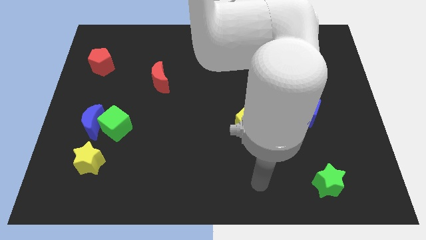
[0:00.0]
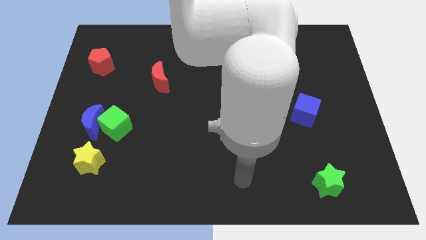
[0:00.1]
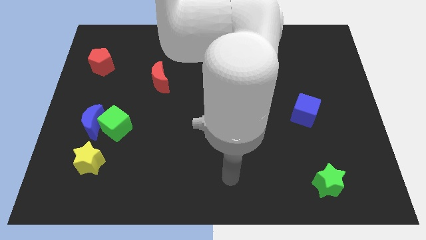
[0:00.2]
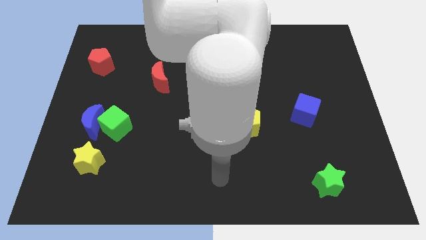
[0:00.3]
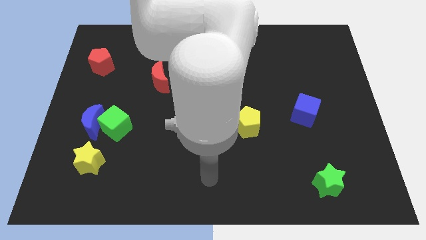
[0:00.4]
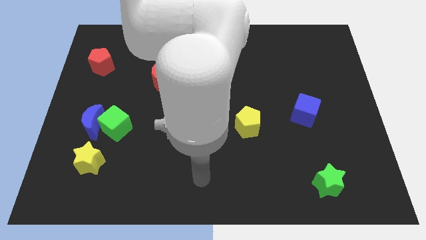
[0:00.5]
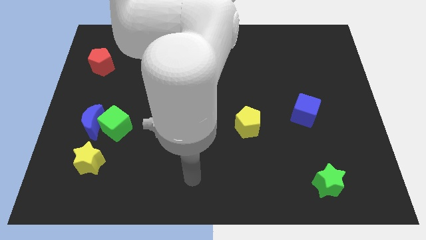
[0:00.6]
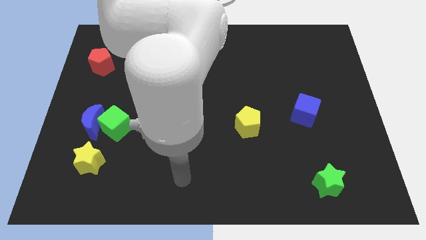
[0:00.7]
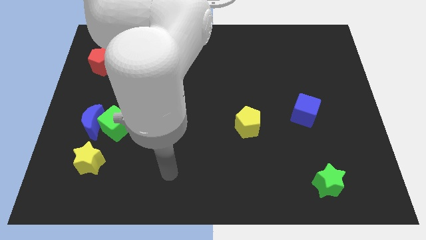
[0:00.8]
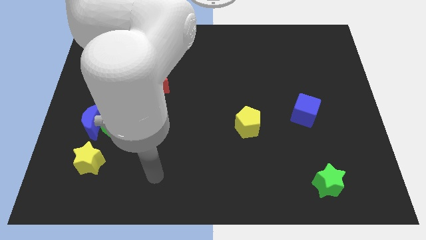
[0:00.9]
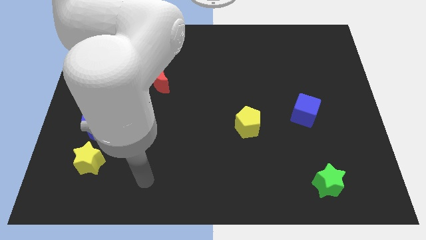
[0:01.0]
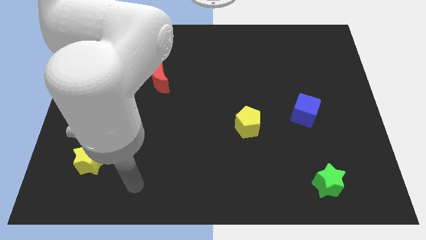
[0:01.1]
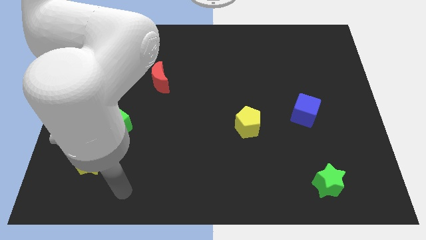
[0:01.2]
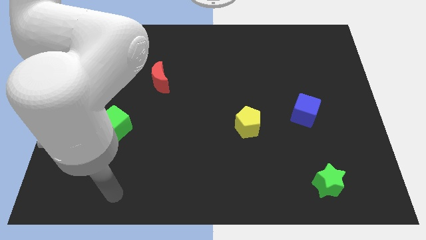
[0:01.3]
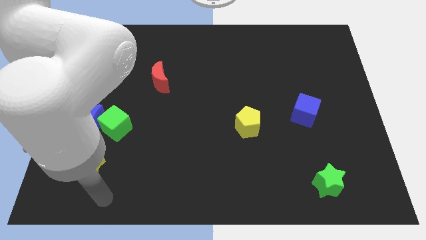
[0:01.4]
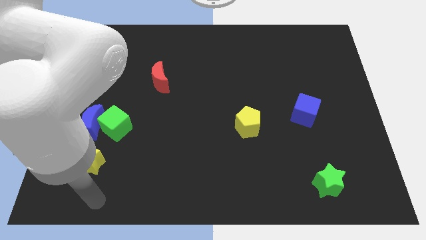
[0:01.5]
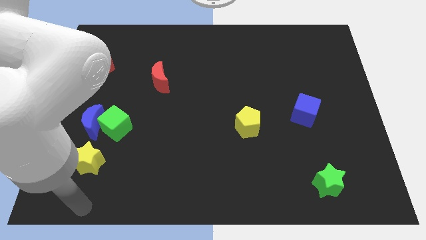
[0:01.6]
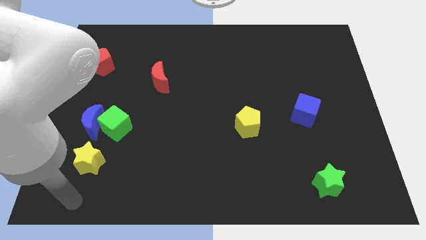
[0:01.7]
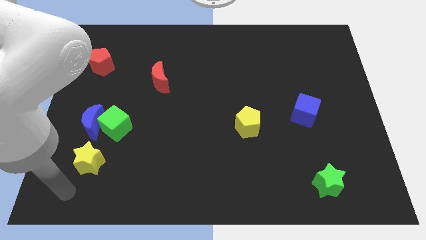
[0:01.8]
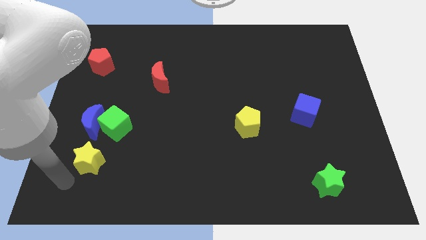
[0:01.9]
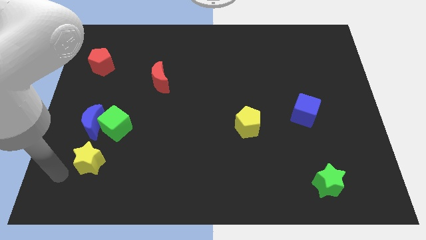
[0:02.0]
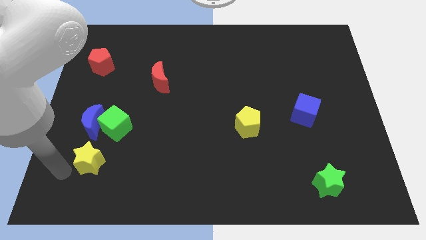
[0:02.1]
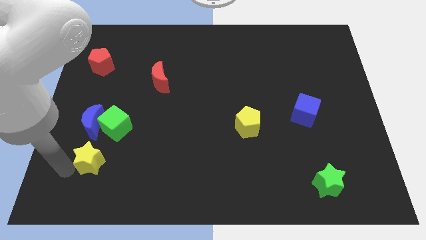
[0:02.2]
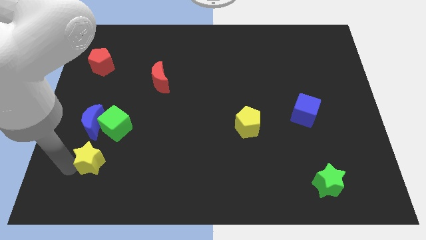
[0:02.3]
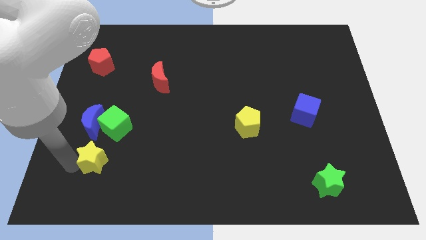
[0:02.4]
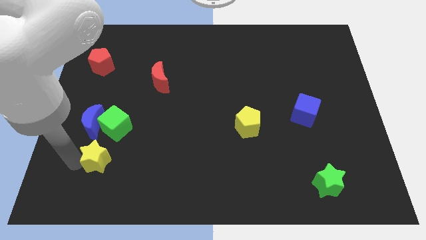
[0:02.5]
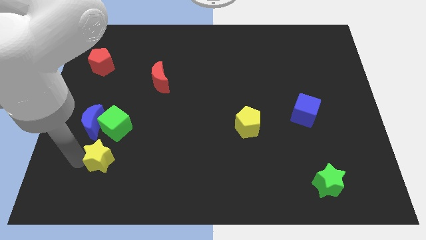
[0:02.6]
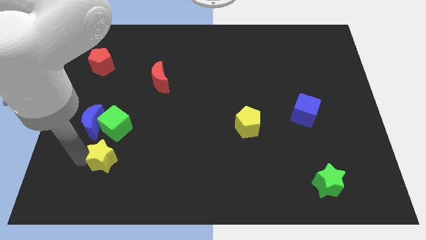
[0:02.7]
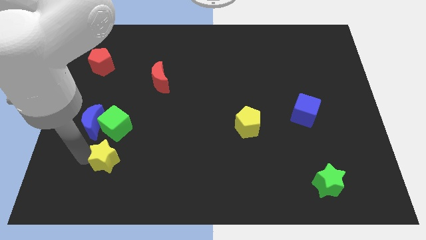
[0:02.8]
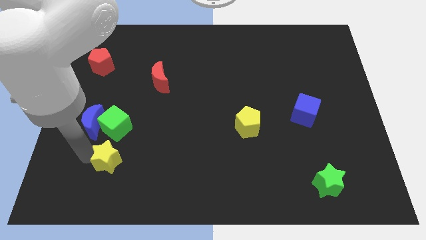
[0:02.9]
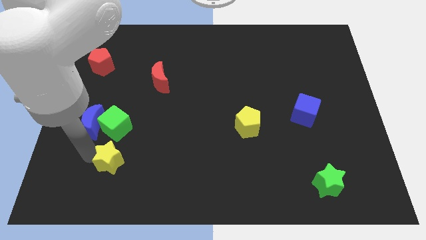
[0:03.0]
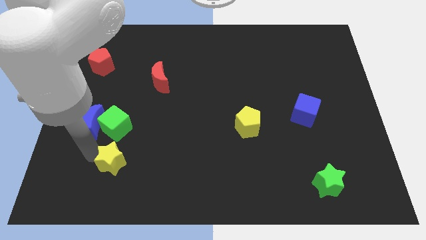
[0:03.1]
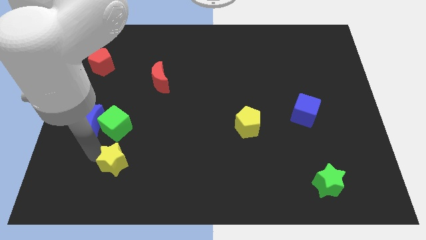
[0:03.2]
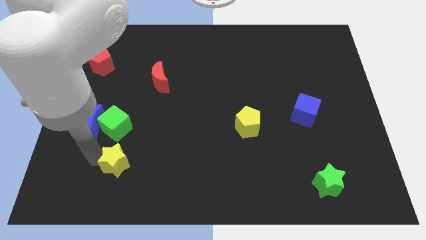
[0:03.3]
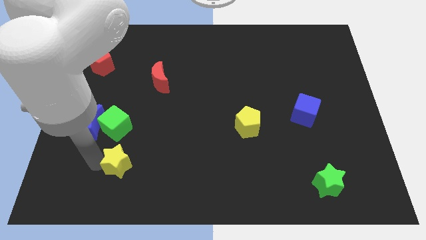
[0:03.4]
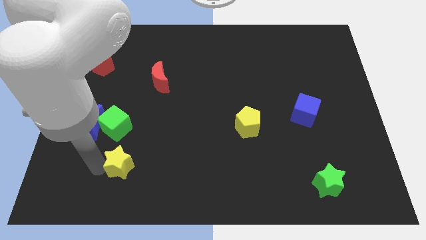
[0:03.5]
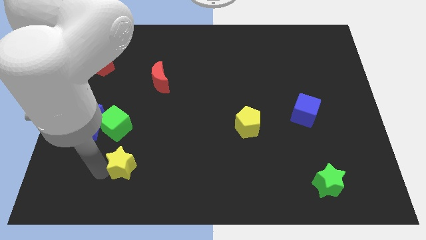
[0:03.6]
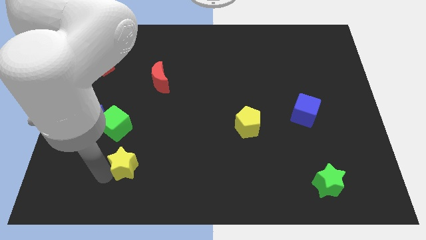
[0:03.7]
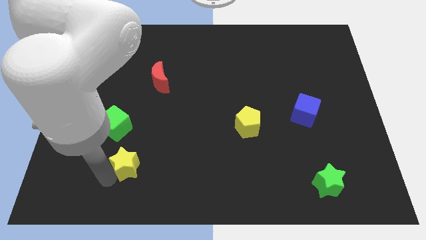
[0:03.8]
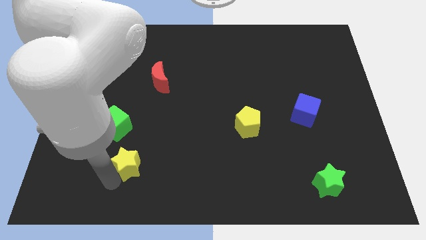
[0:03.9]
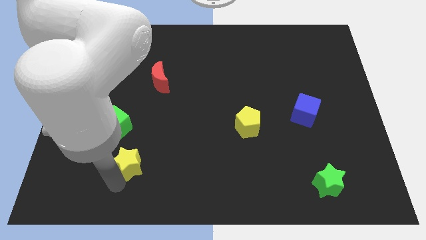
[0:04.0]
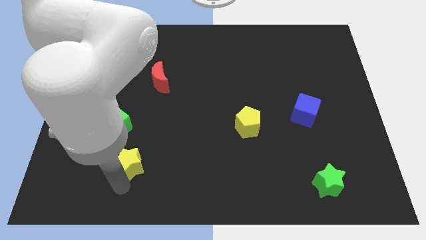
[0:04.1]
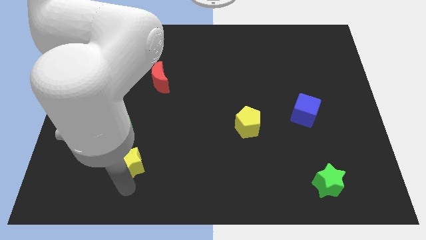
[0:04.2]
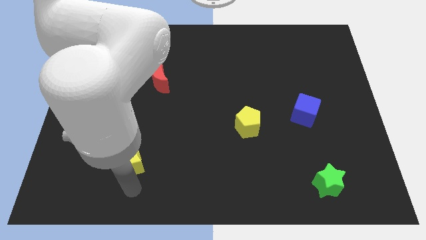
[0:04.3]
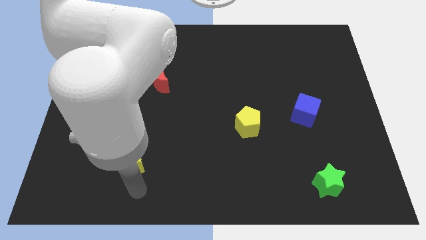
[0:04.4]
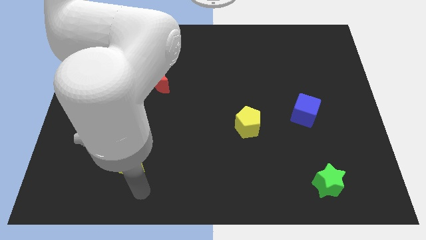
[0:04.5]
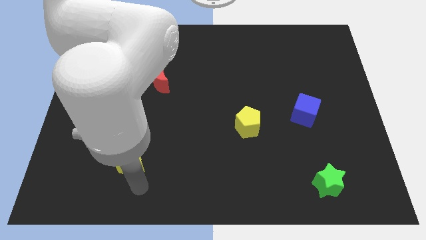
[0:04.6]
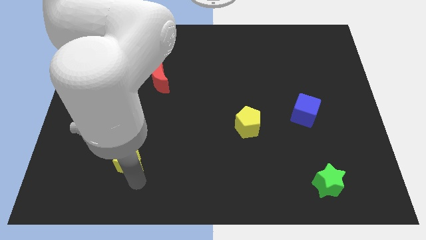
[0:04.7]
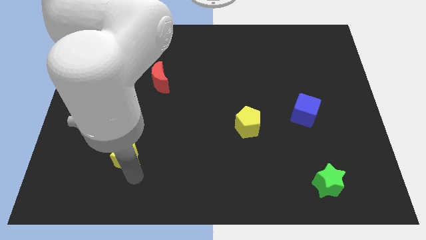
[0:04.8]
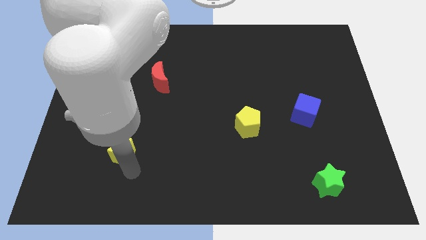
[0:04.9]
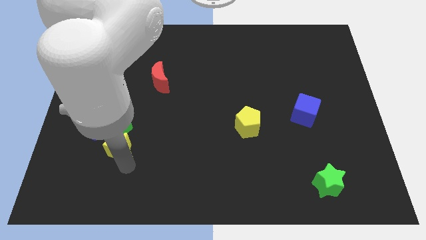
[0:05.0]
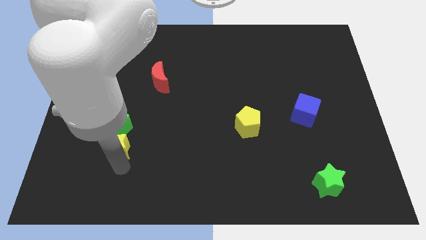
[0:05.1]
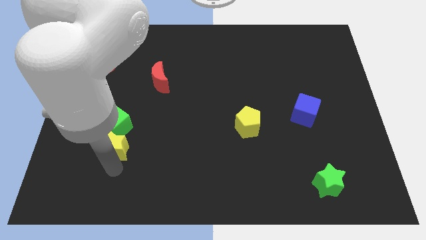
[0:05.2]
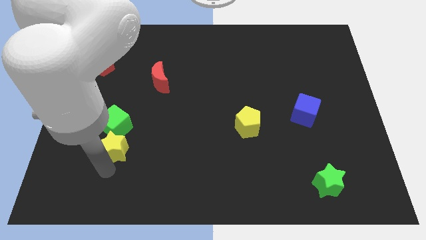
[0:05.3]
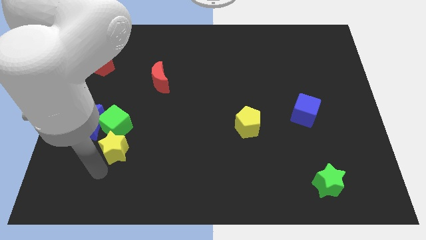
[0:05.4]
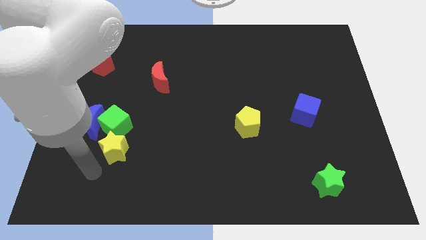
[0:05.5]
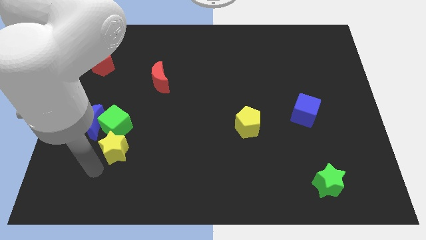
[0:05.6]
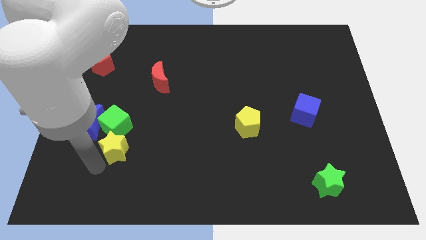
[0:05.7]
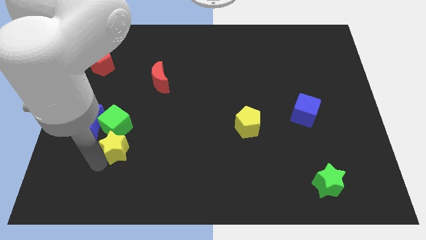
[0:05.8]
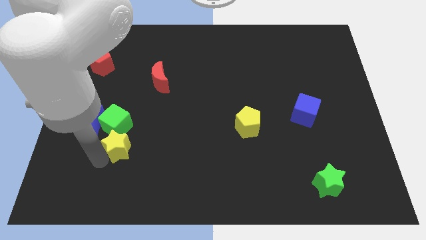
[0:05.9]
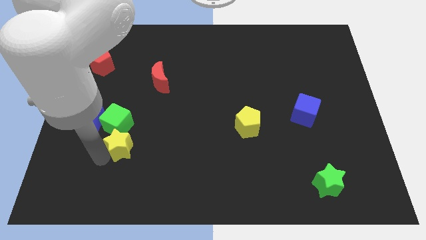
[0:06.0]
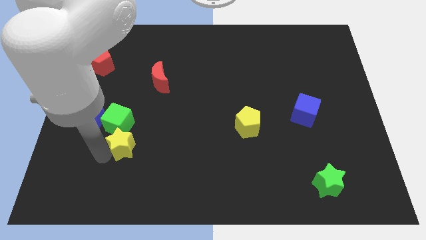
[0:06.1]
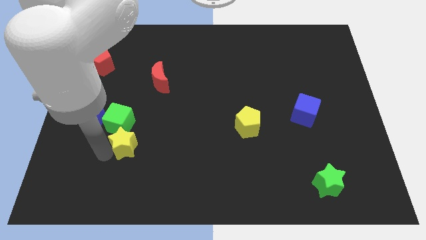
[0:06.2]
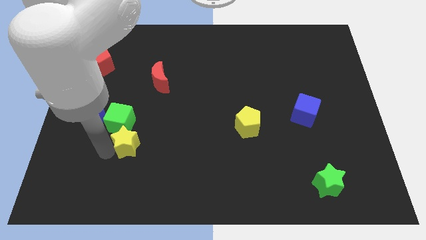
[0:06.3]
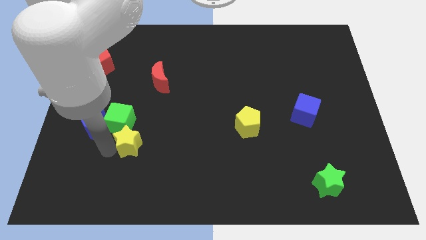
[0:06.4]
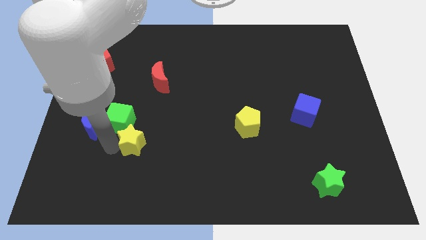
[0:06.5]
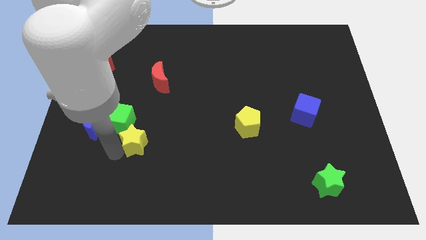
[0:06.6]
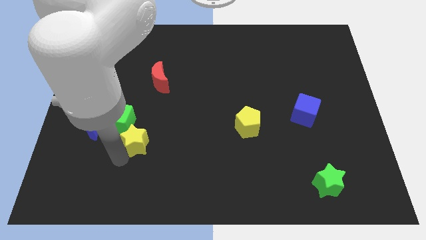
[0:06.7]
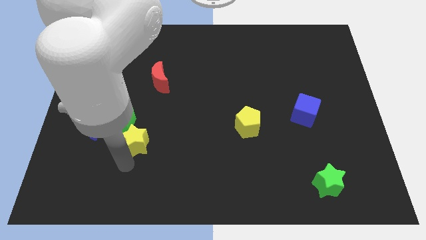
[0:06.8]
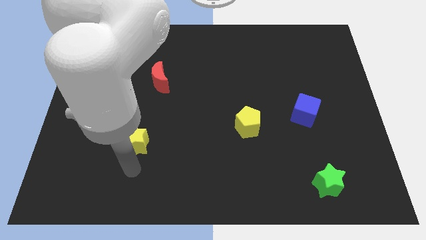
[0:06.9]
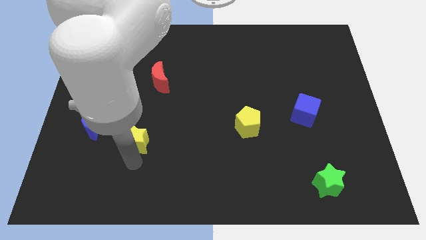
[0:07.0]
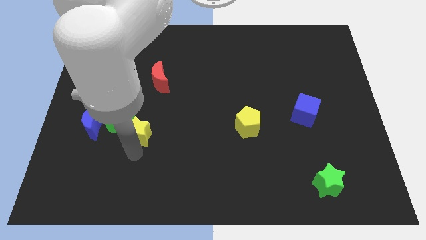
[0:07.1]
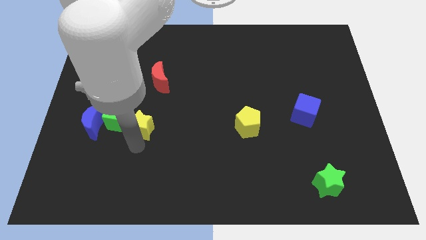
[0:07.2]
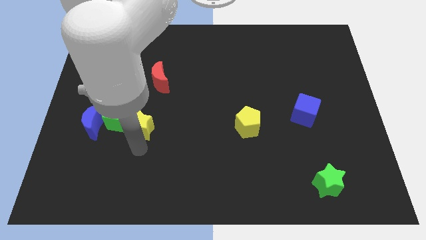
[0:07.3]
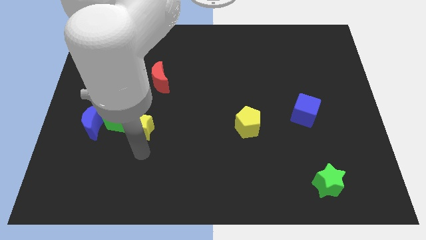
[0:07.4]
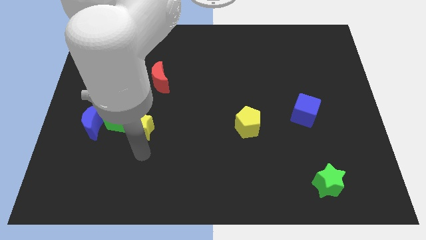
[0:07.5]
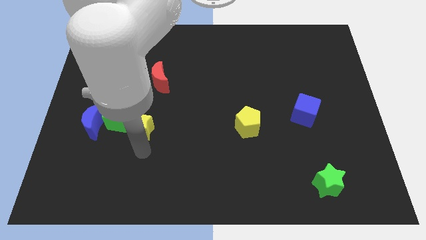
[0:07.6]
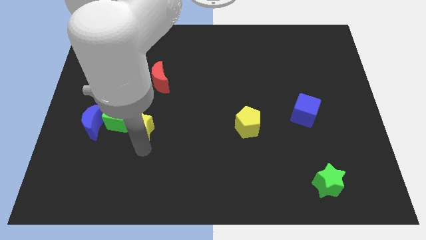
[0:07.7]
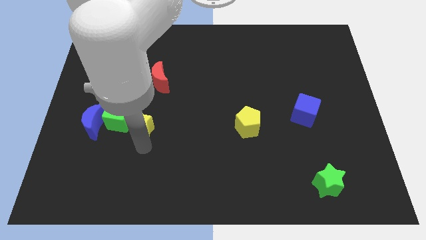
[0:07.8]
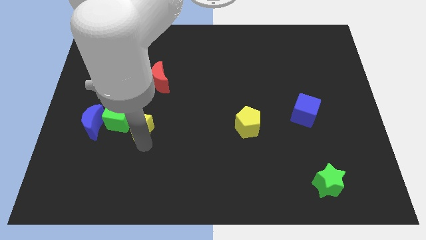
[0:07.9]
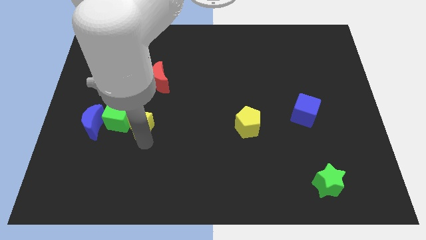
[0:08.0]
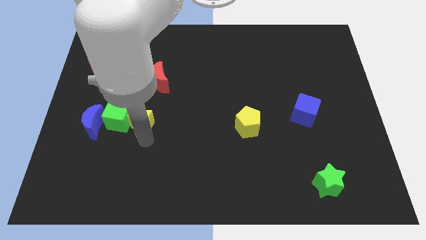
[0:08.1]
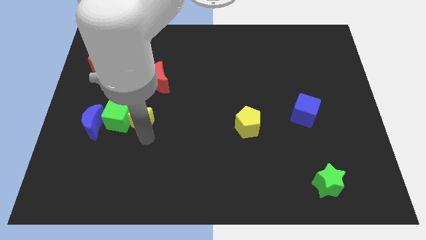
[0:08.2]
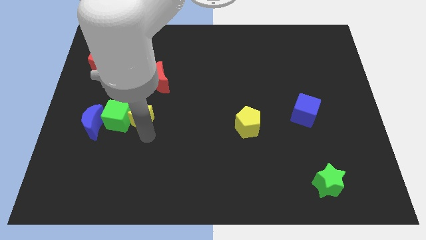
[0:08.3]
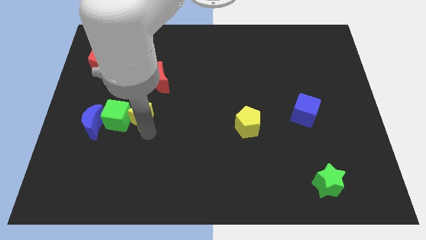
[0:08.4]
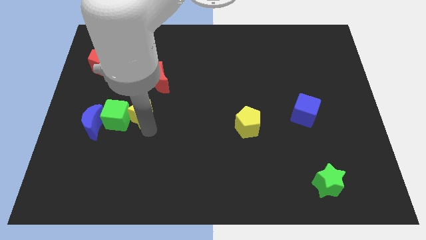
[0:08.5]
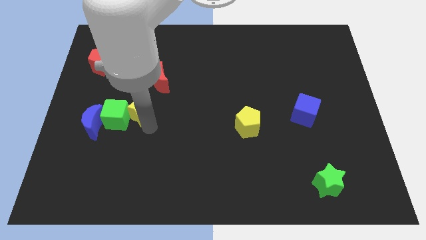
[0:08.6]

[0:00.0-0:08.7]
move the yellow star to the bottom left of the red moon
